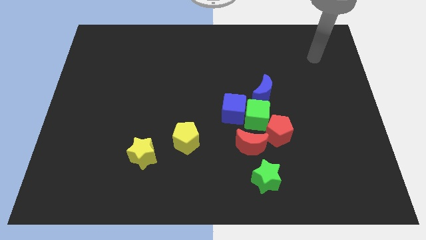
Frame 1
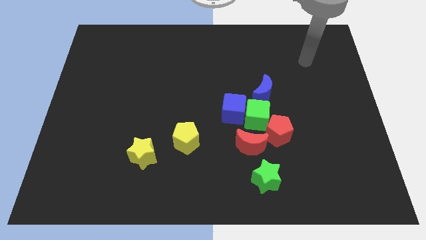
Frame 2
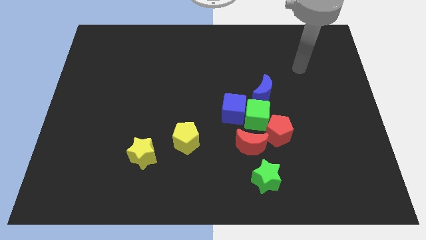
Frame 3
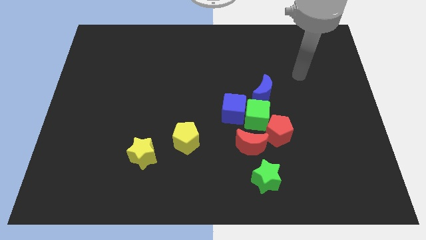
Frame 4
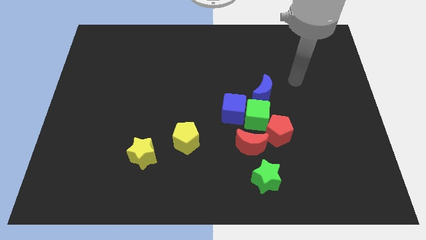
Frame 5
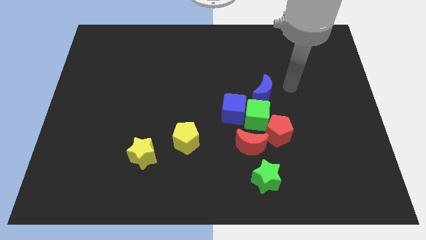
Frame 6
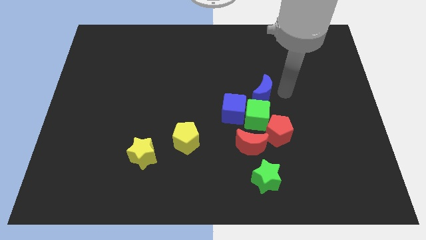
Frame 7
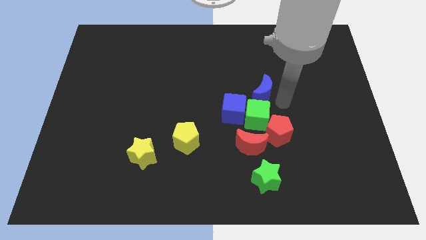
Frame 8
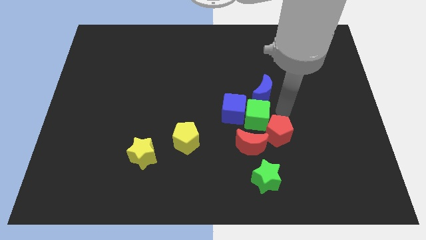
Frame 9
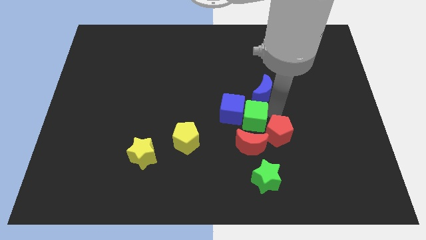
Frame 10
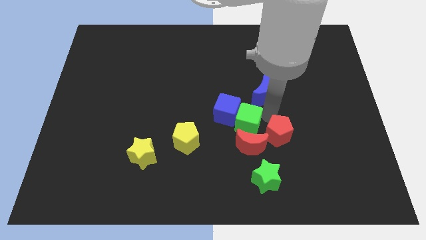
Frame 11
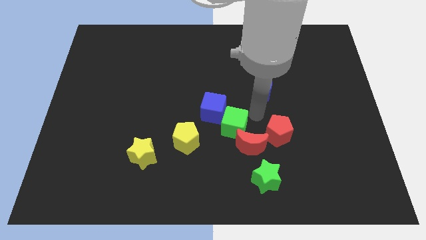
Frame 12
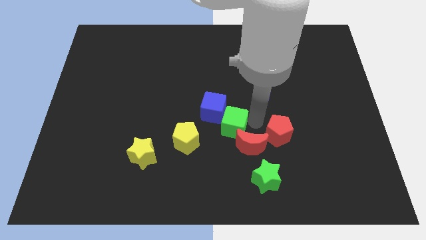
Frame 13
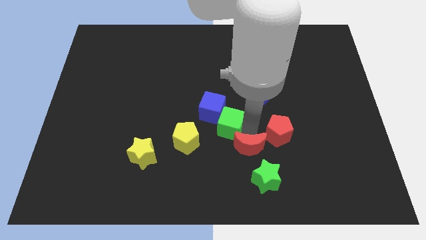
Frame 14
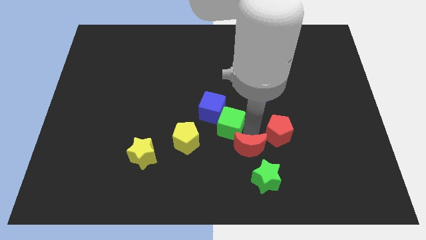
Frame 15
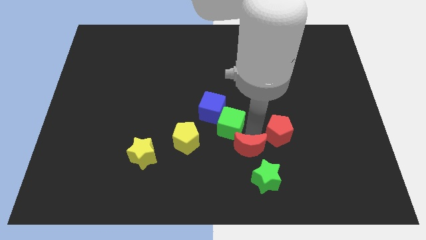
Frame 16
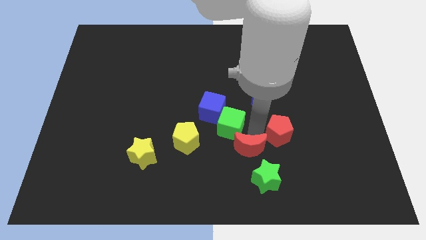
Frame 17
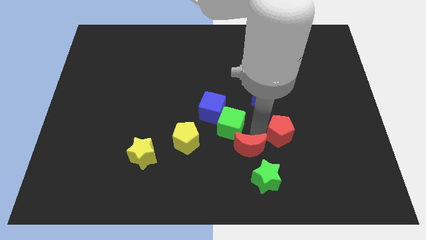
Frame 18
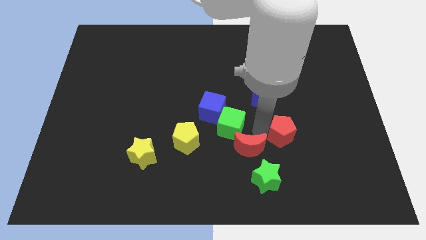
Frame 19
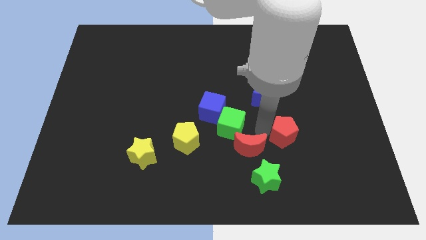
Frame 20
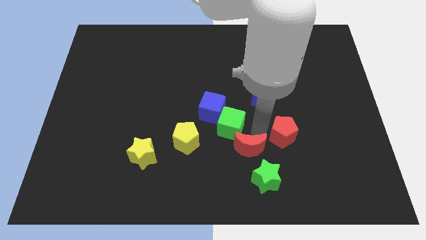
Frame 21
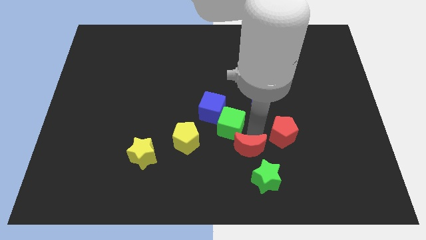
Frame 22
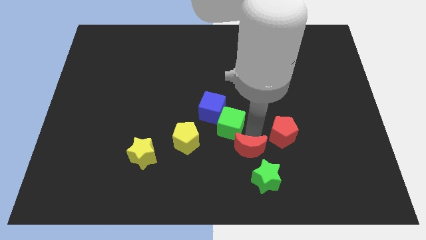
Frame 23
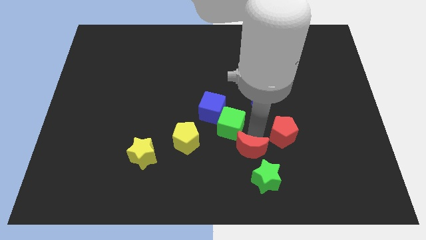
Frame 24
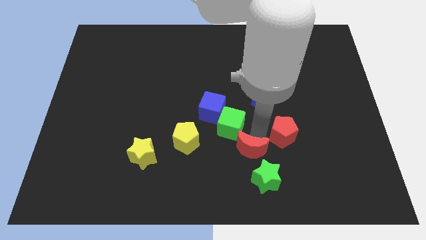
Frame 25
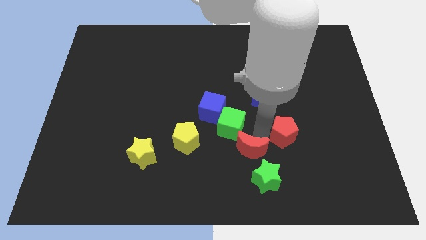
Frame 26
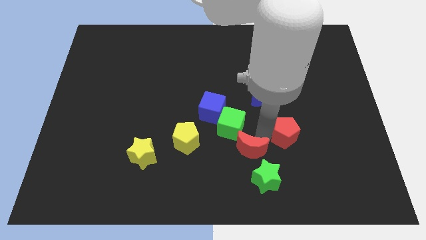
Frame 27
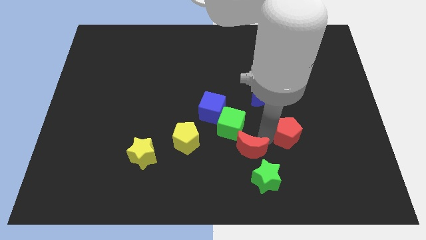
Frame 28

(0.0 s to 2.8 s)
separate the red pentagon from the green cube and red moon

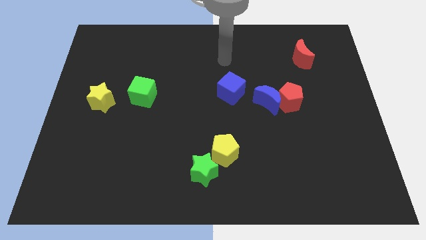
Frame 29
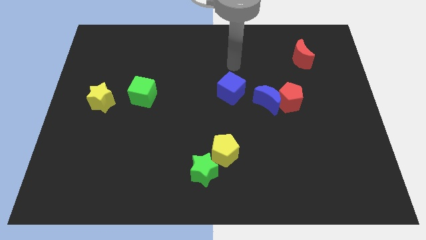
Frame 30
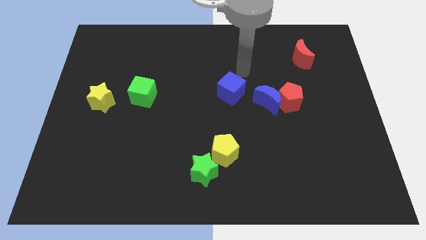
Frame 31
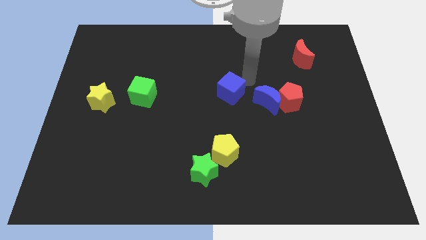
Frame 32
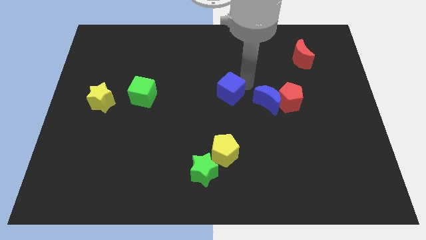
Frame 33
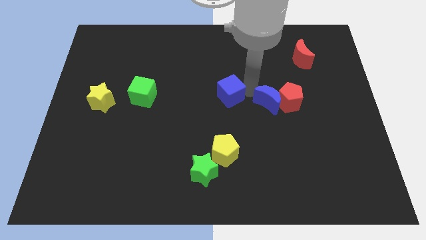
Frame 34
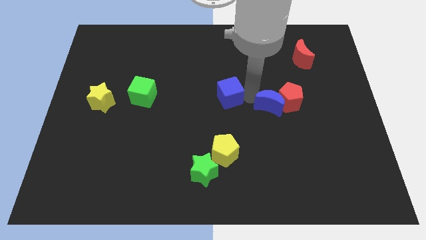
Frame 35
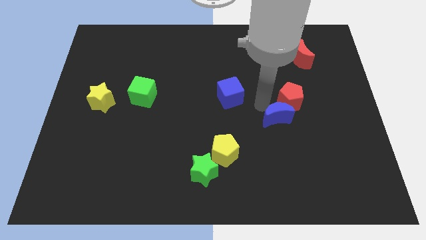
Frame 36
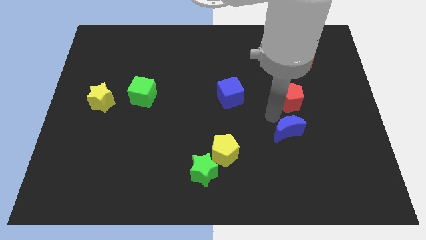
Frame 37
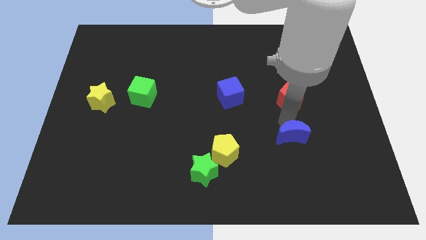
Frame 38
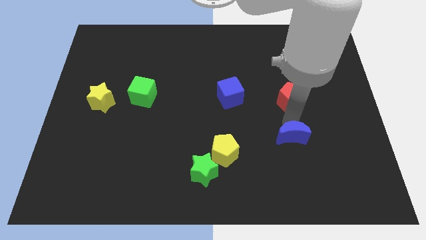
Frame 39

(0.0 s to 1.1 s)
separate the red pentagon from the blue moon

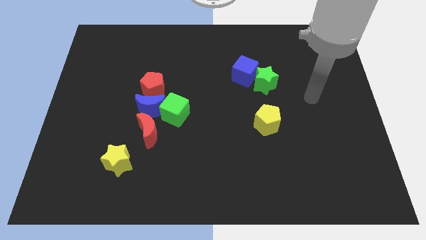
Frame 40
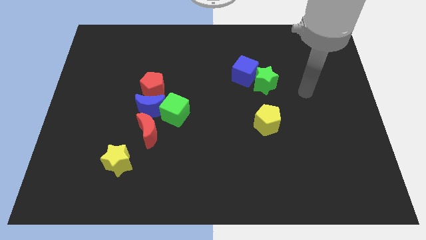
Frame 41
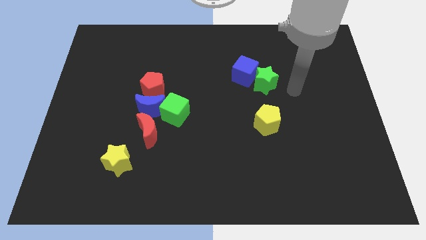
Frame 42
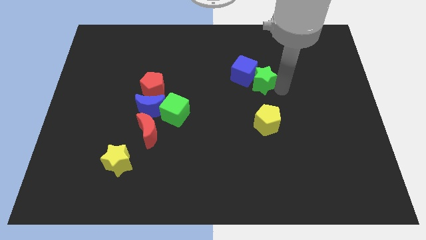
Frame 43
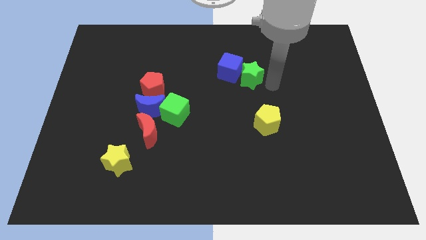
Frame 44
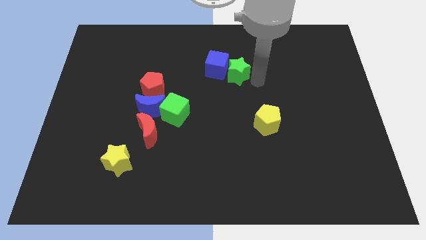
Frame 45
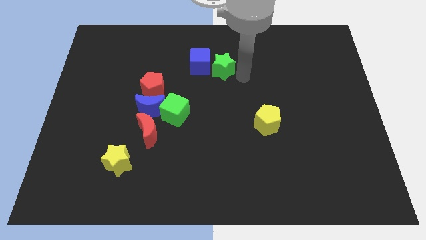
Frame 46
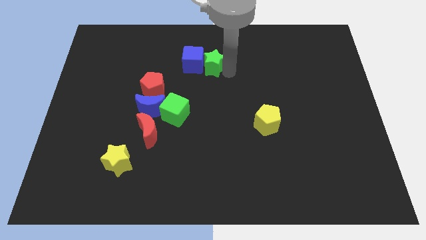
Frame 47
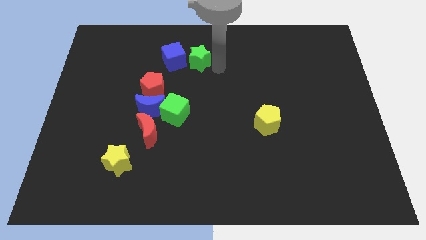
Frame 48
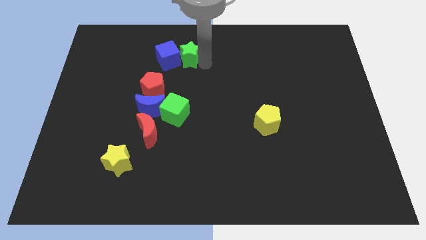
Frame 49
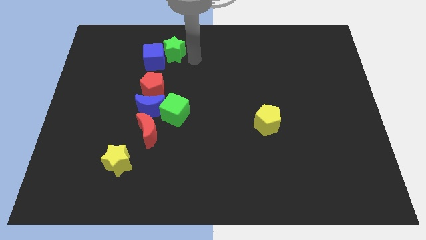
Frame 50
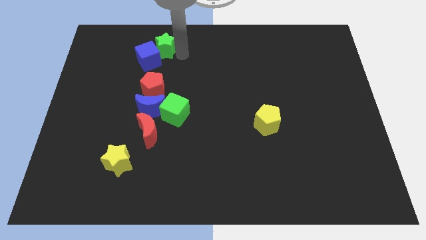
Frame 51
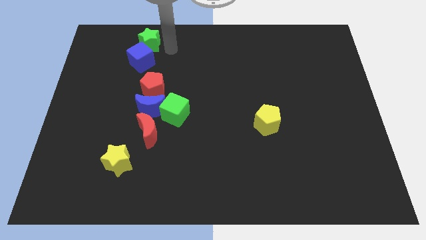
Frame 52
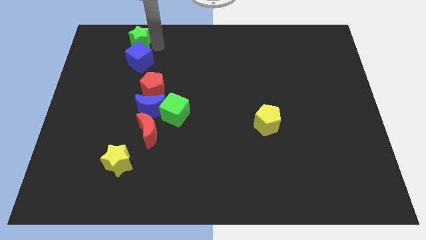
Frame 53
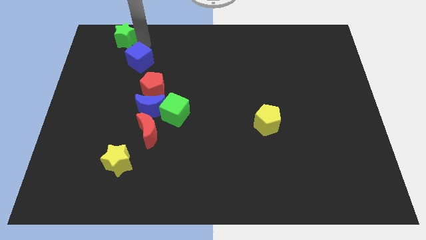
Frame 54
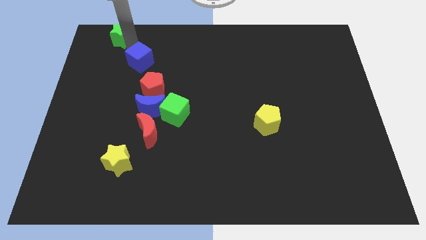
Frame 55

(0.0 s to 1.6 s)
pull the blue cube apart from the green star

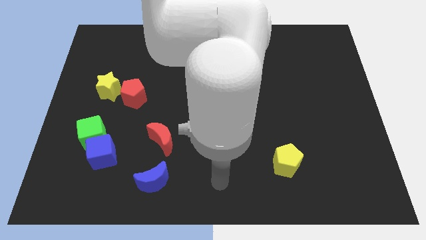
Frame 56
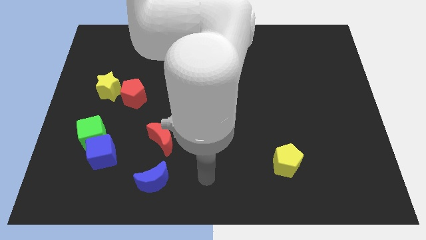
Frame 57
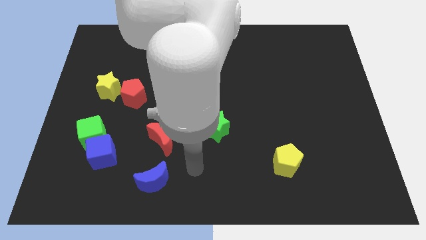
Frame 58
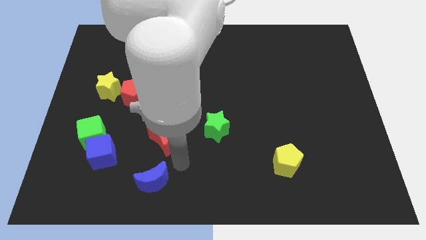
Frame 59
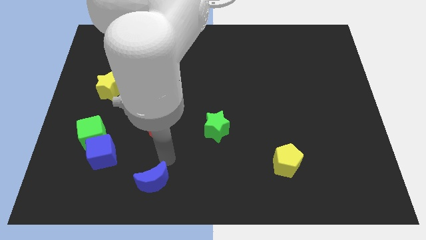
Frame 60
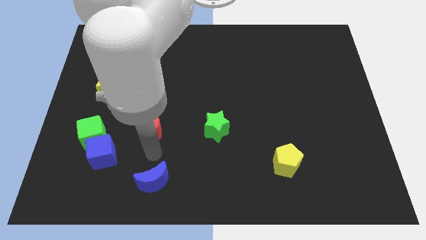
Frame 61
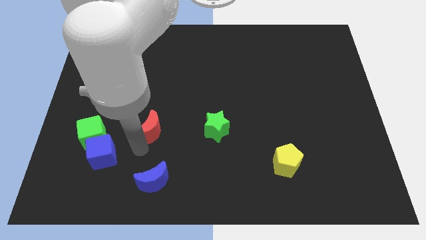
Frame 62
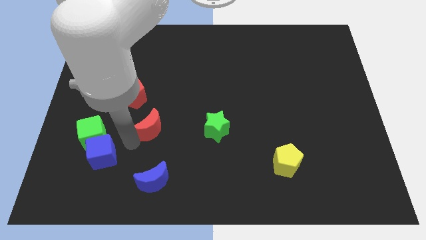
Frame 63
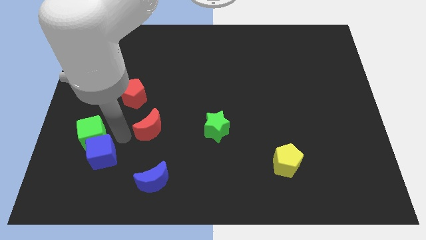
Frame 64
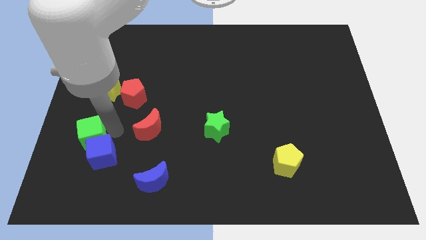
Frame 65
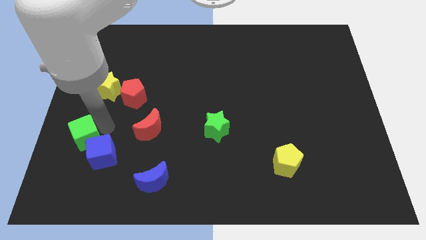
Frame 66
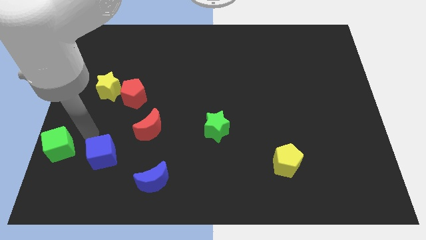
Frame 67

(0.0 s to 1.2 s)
separate the blue cube from the green cube

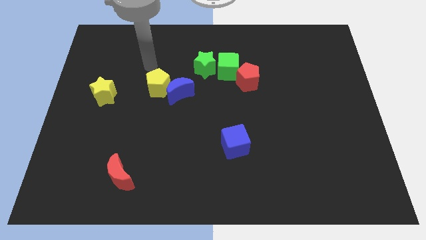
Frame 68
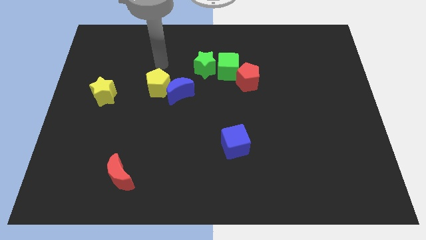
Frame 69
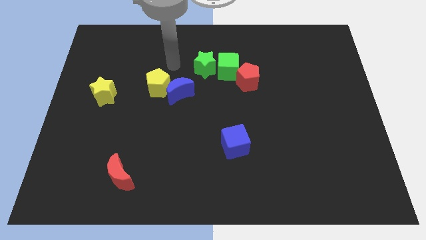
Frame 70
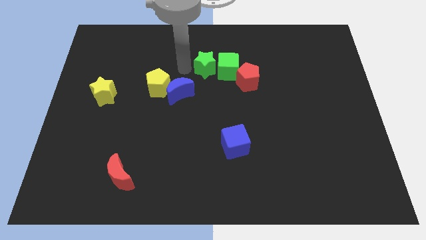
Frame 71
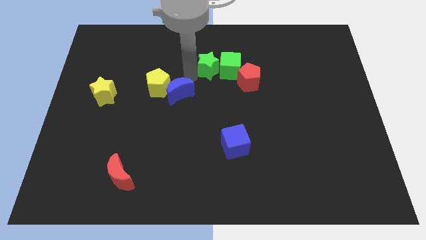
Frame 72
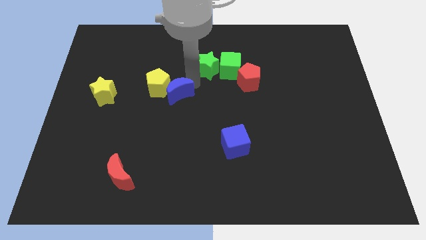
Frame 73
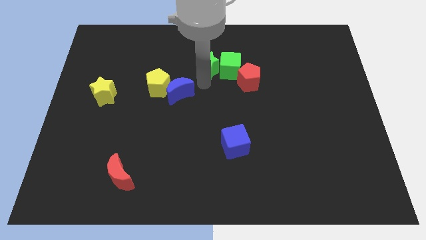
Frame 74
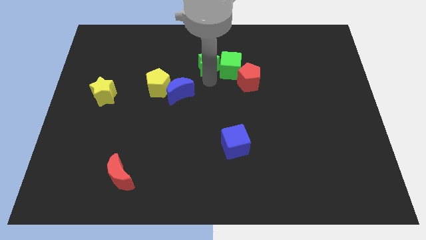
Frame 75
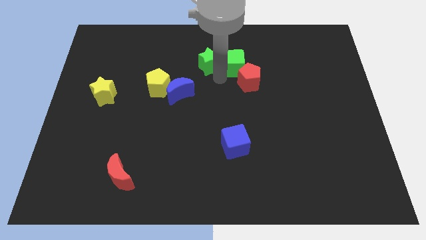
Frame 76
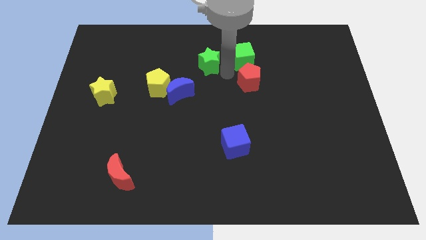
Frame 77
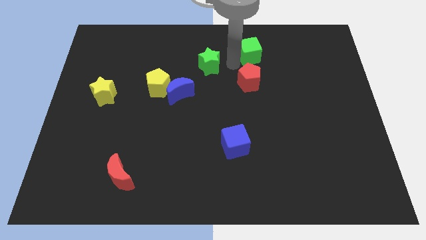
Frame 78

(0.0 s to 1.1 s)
pull the green star apart from the green cube

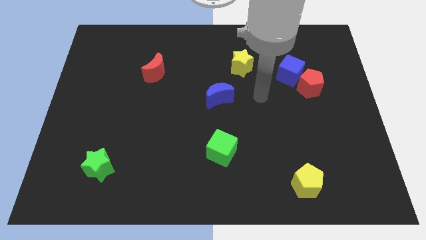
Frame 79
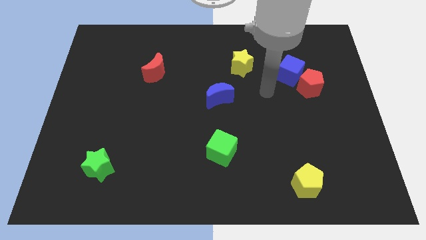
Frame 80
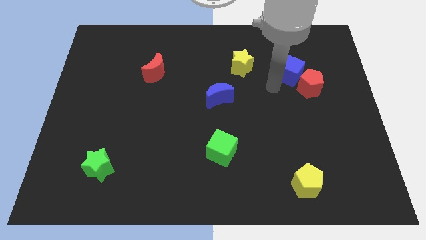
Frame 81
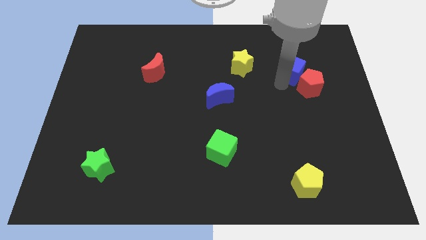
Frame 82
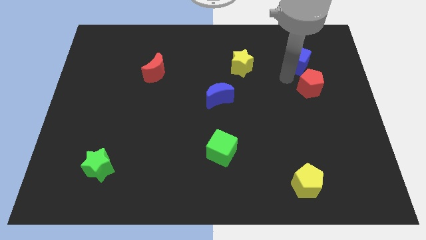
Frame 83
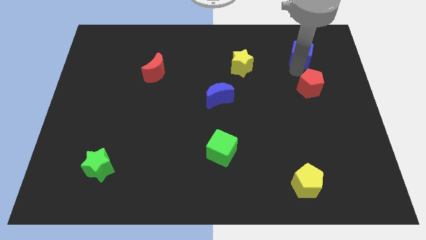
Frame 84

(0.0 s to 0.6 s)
separate the red pentagon from the blue cube

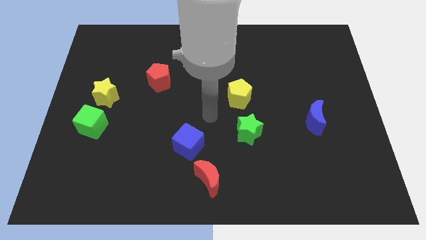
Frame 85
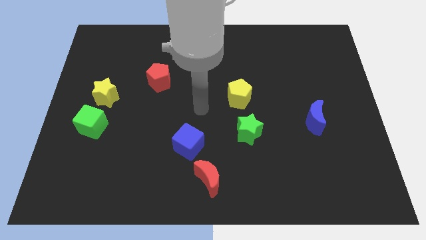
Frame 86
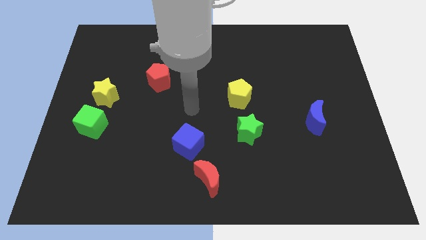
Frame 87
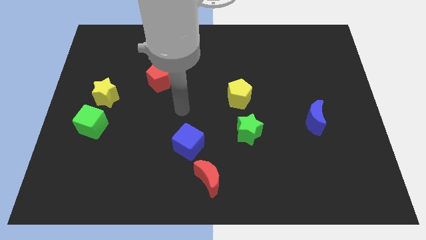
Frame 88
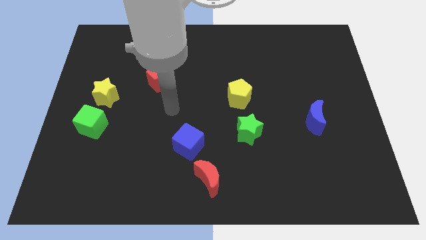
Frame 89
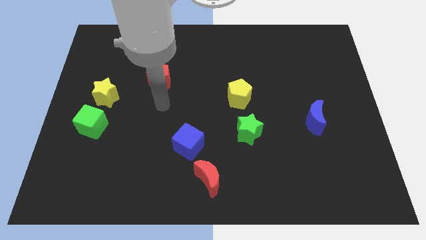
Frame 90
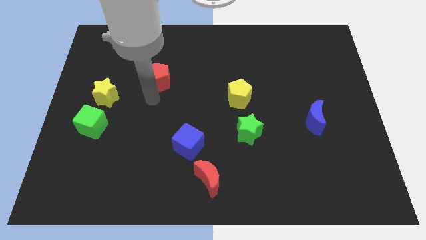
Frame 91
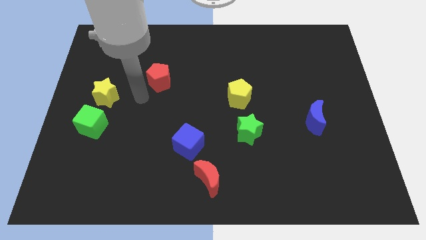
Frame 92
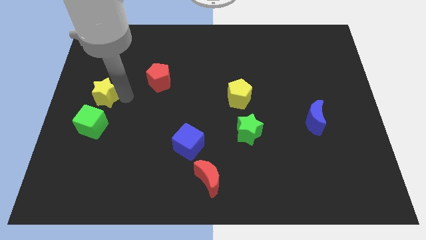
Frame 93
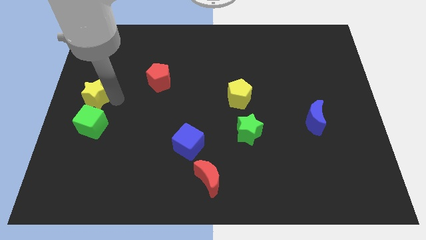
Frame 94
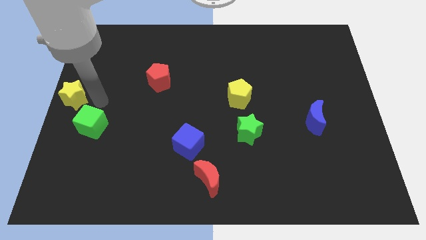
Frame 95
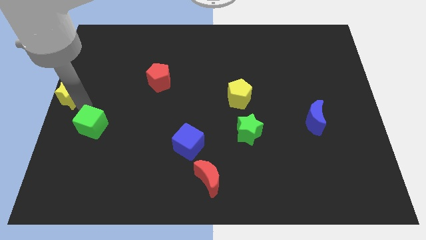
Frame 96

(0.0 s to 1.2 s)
pull the green cube apart from the yellow star
